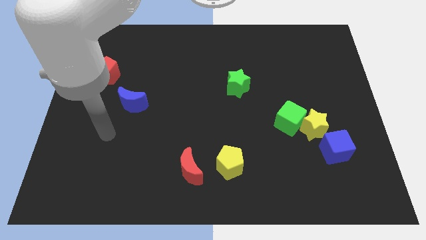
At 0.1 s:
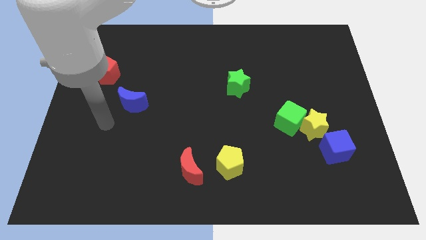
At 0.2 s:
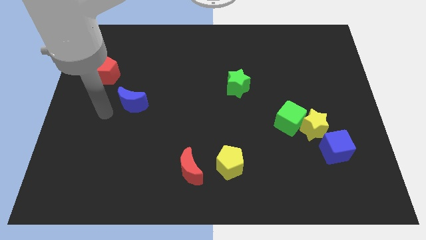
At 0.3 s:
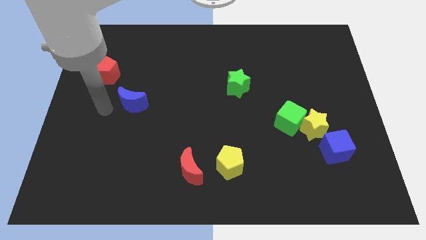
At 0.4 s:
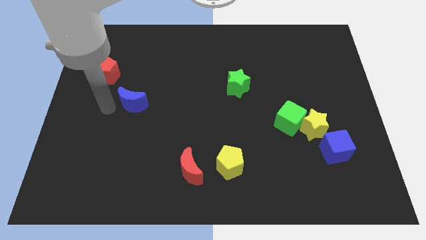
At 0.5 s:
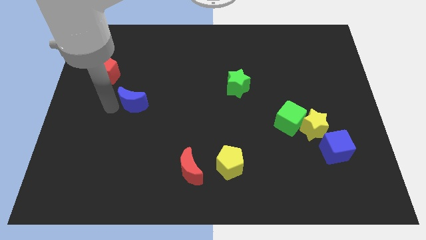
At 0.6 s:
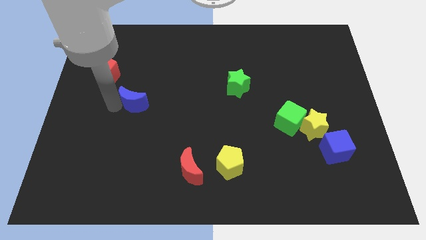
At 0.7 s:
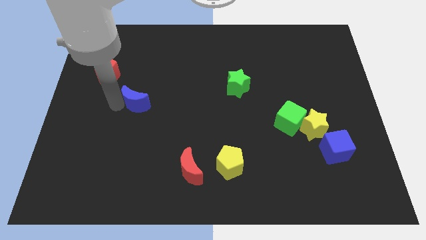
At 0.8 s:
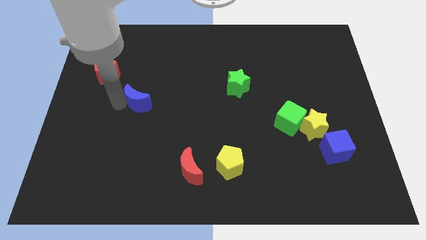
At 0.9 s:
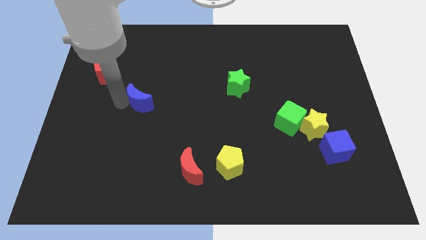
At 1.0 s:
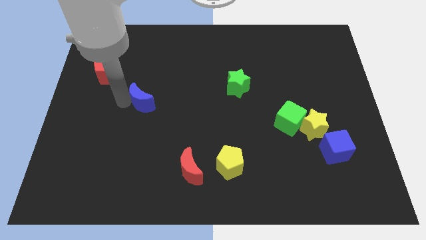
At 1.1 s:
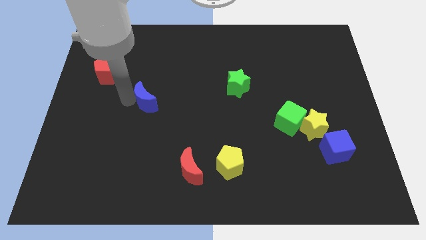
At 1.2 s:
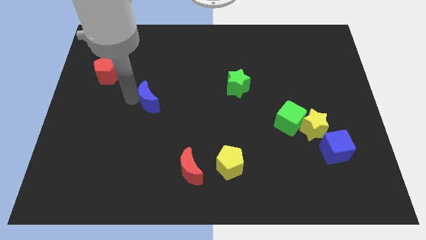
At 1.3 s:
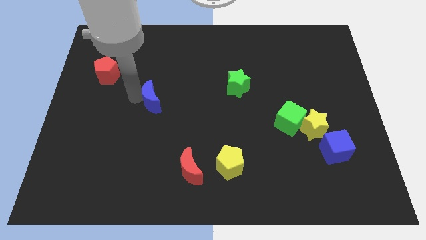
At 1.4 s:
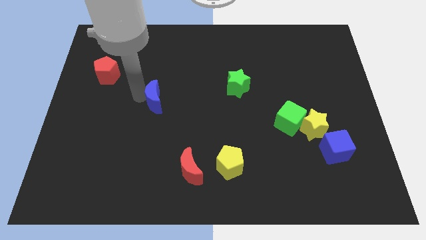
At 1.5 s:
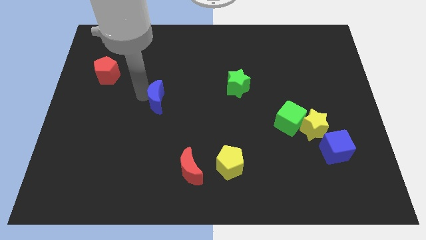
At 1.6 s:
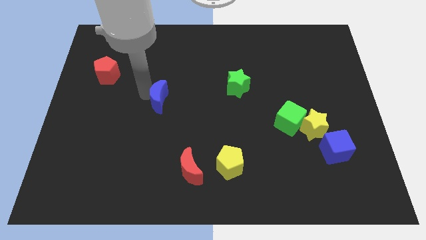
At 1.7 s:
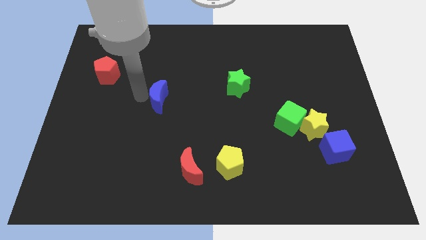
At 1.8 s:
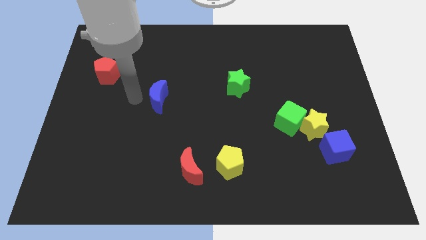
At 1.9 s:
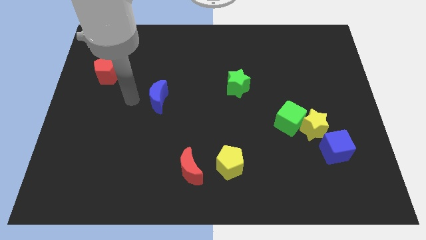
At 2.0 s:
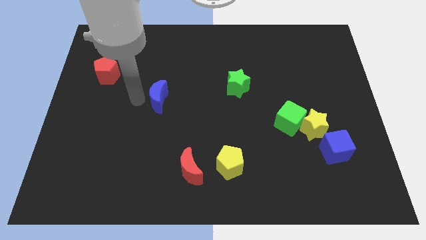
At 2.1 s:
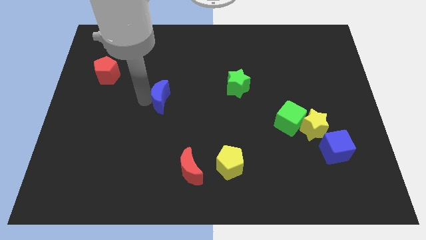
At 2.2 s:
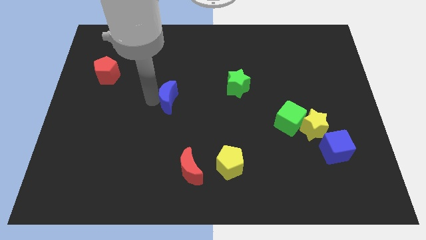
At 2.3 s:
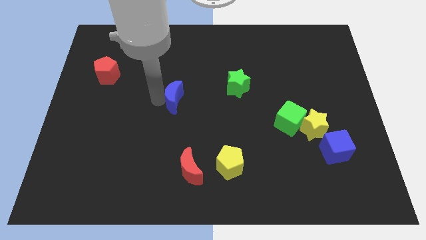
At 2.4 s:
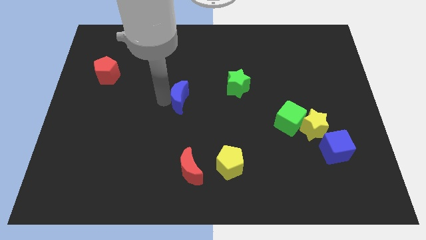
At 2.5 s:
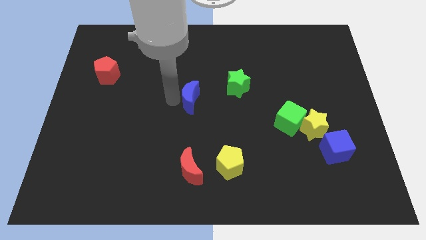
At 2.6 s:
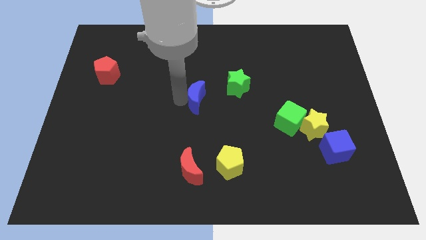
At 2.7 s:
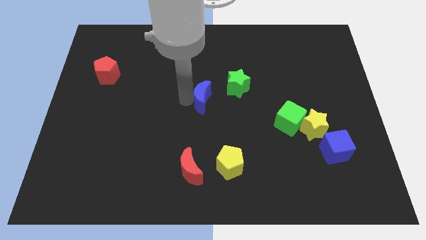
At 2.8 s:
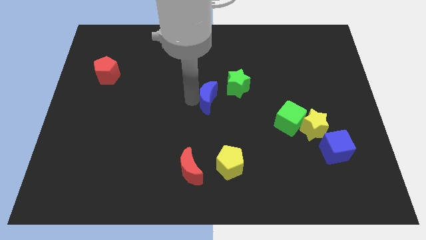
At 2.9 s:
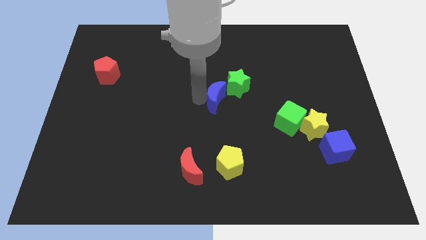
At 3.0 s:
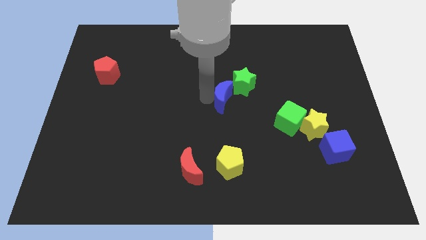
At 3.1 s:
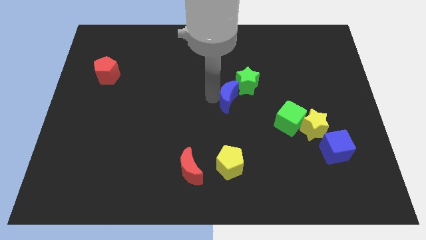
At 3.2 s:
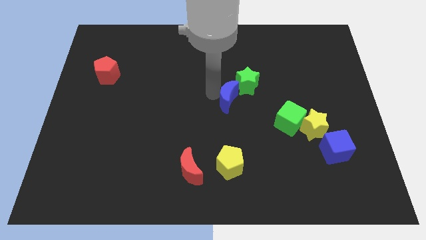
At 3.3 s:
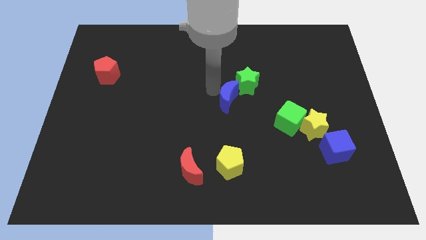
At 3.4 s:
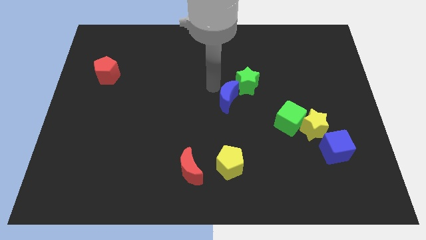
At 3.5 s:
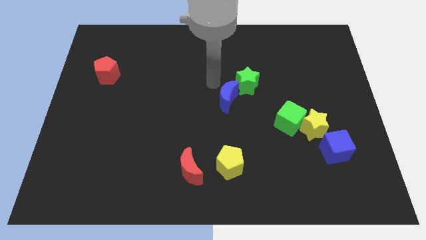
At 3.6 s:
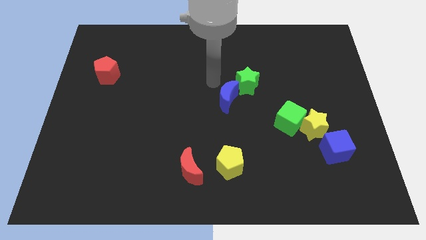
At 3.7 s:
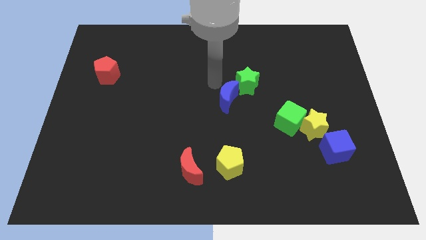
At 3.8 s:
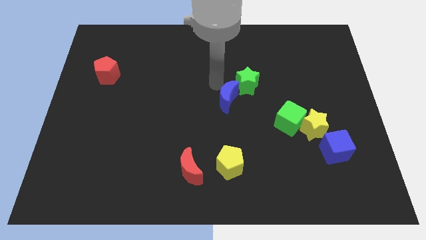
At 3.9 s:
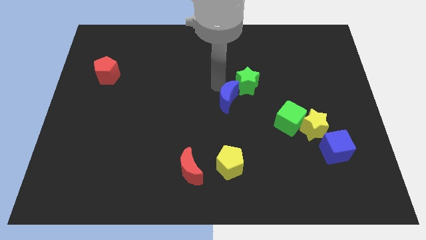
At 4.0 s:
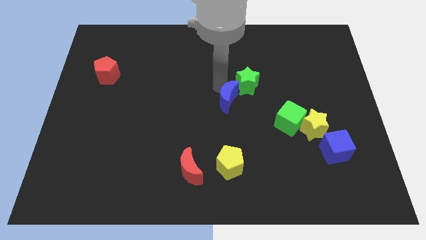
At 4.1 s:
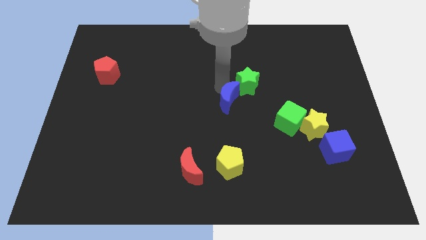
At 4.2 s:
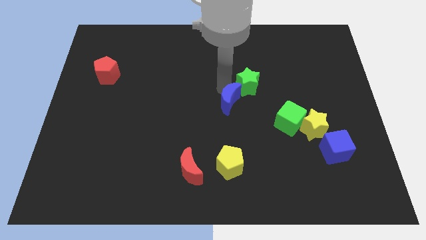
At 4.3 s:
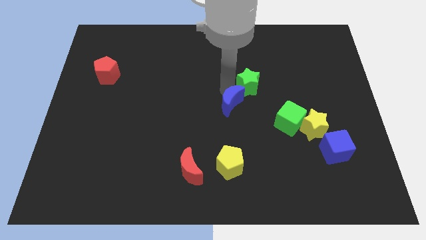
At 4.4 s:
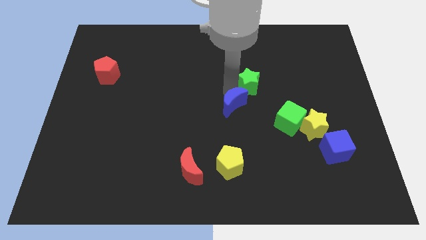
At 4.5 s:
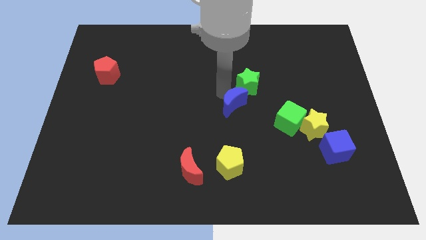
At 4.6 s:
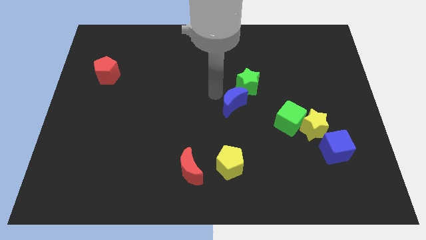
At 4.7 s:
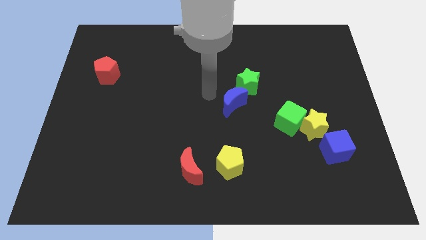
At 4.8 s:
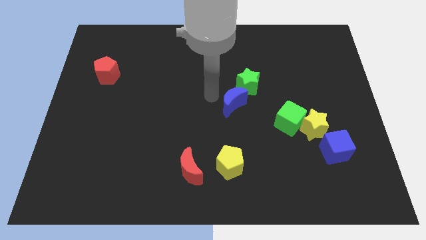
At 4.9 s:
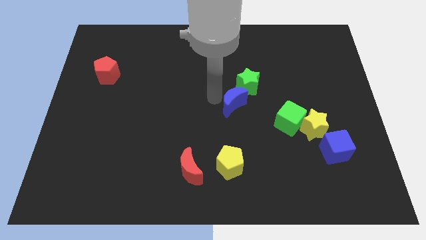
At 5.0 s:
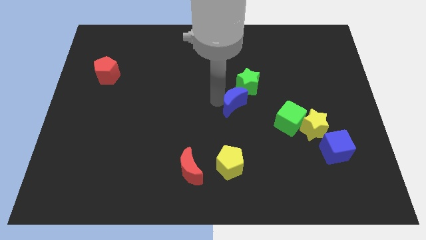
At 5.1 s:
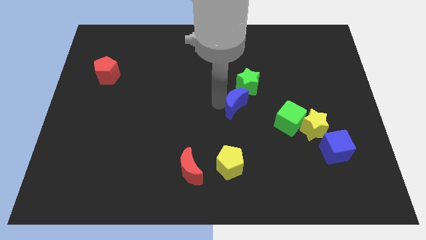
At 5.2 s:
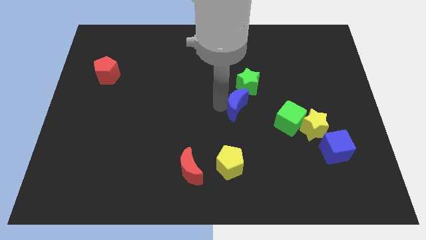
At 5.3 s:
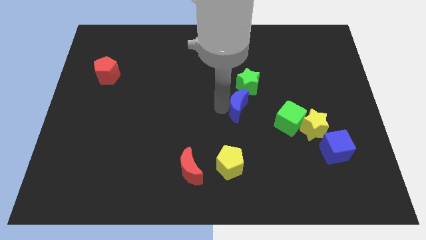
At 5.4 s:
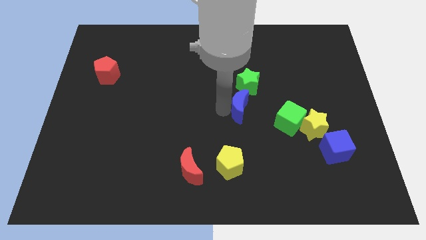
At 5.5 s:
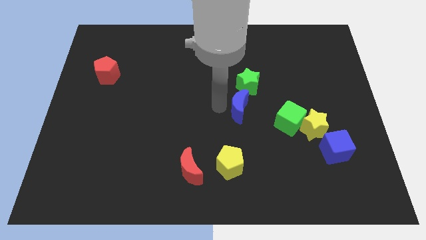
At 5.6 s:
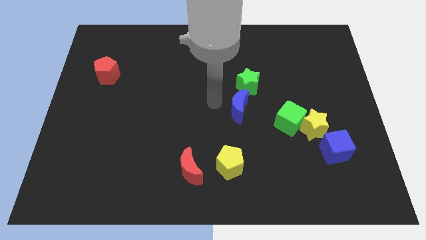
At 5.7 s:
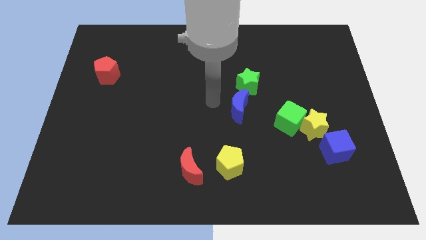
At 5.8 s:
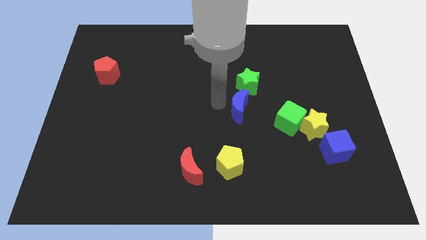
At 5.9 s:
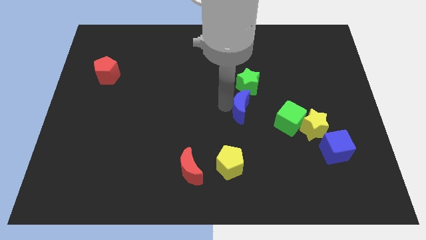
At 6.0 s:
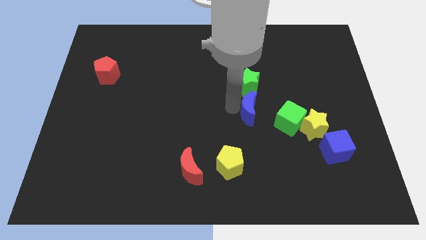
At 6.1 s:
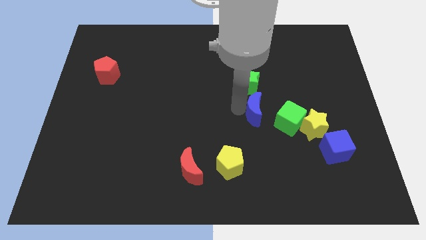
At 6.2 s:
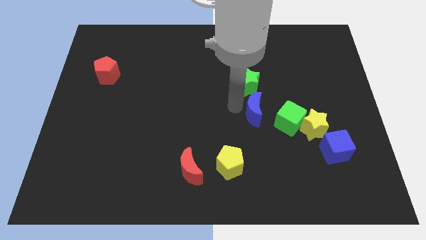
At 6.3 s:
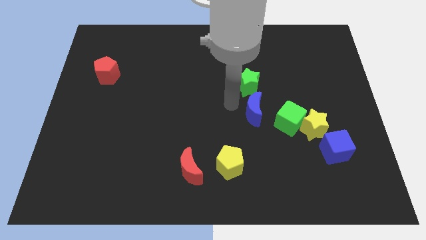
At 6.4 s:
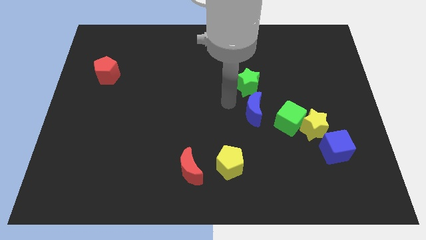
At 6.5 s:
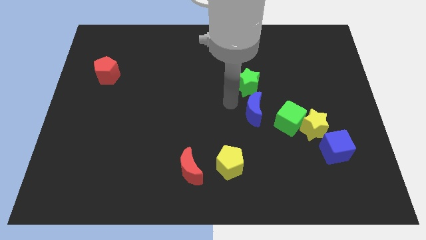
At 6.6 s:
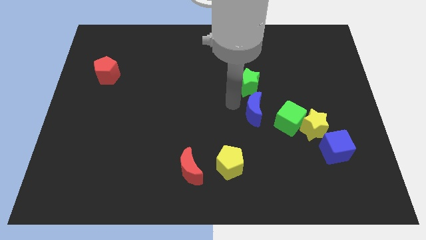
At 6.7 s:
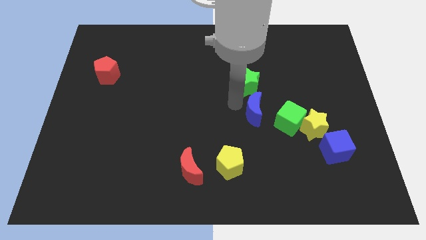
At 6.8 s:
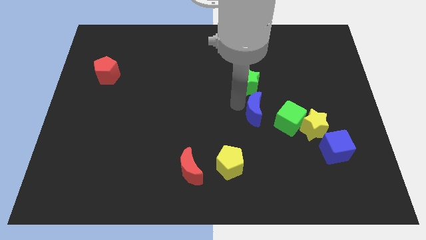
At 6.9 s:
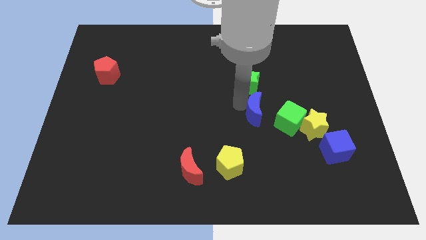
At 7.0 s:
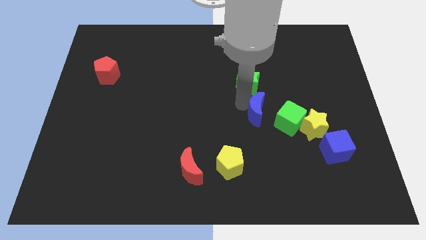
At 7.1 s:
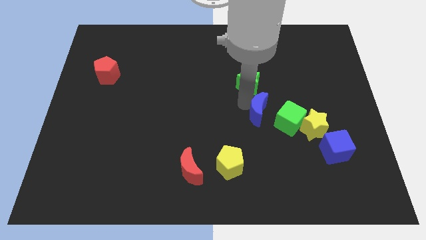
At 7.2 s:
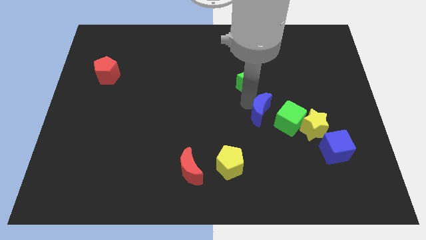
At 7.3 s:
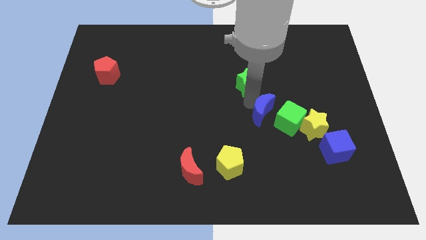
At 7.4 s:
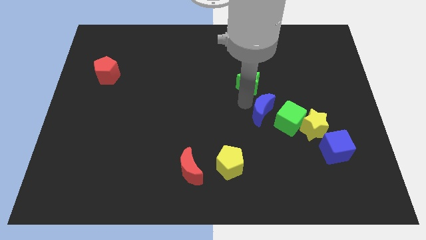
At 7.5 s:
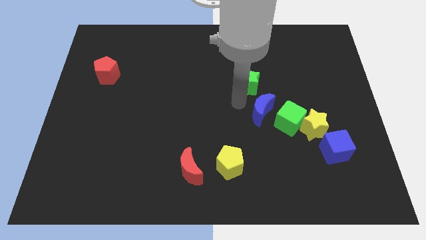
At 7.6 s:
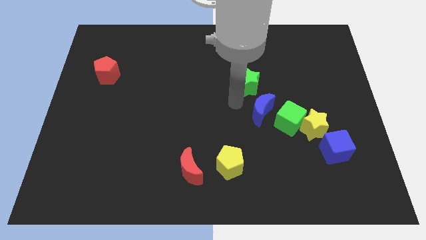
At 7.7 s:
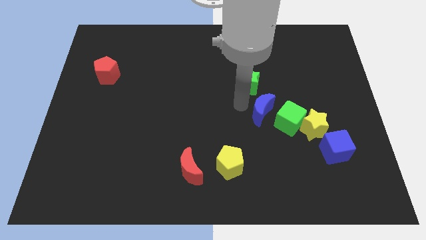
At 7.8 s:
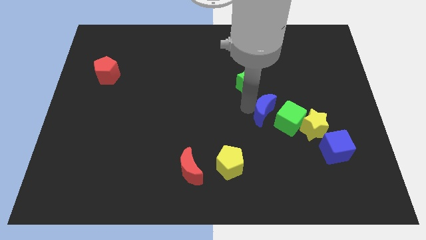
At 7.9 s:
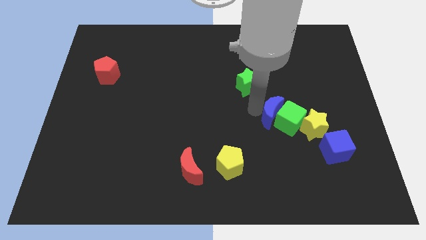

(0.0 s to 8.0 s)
push the blue moon to the green cube
